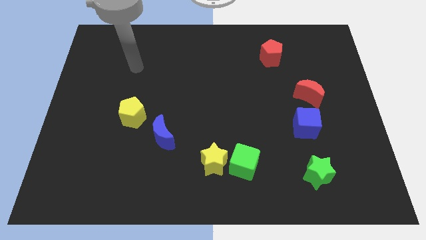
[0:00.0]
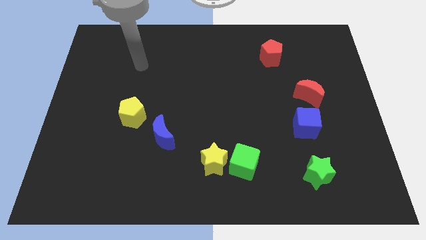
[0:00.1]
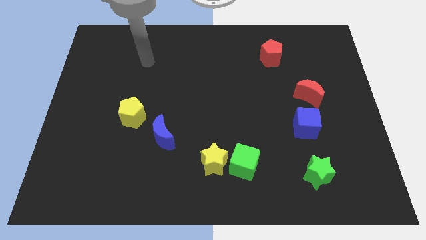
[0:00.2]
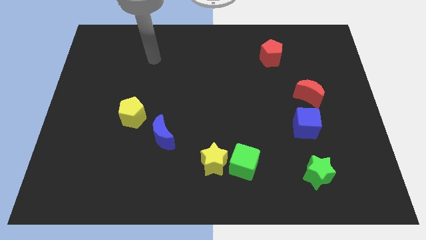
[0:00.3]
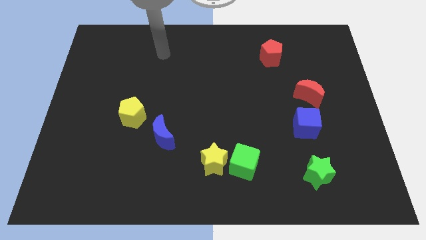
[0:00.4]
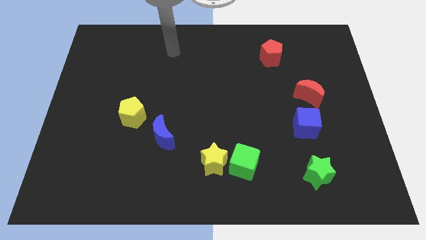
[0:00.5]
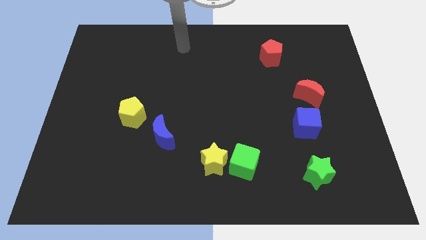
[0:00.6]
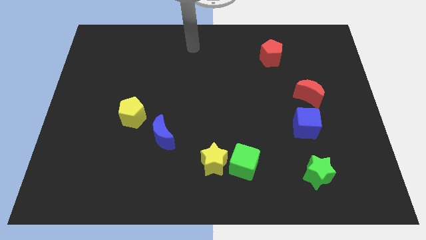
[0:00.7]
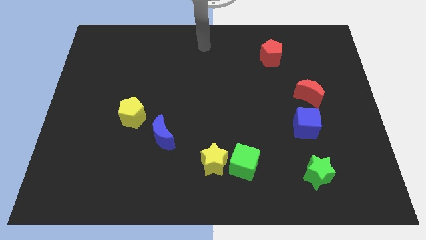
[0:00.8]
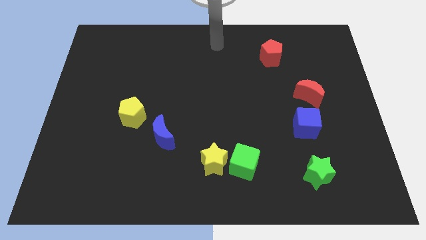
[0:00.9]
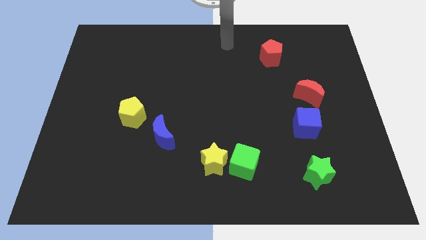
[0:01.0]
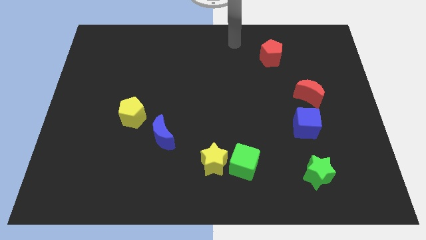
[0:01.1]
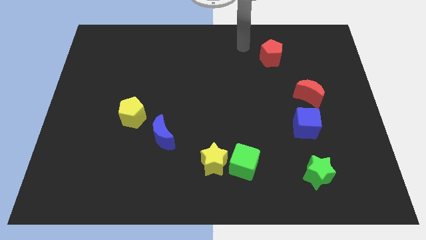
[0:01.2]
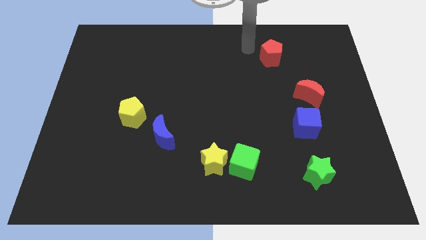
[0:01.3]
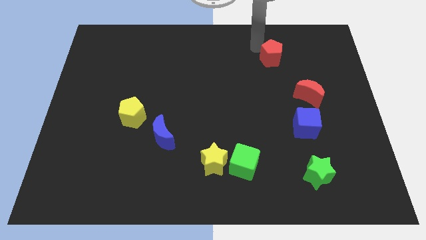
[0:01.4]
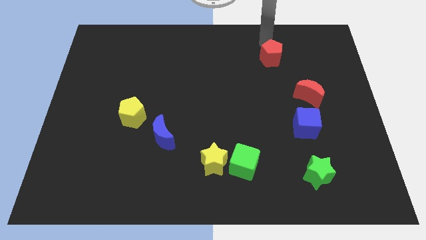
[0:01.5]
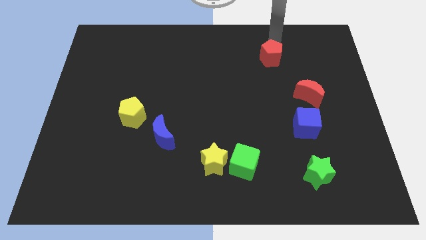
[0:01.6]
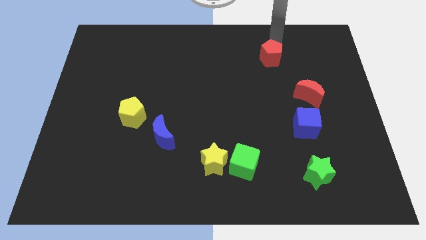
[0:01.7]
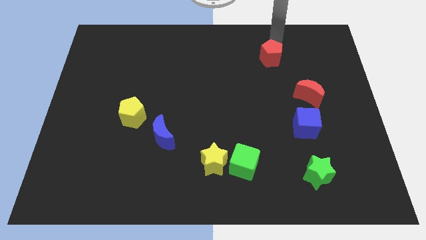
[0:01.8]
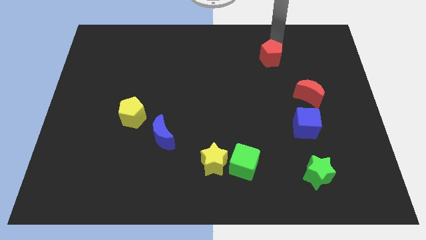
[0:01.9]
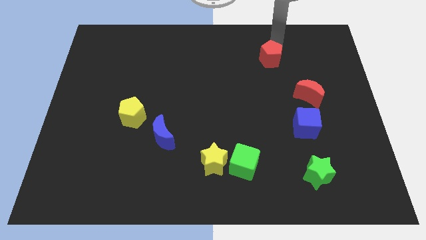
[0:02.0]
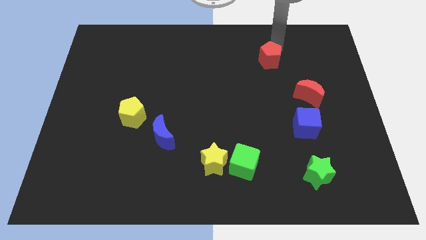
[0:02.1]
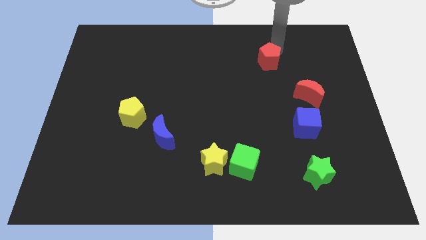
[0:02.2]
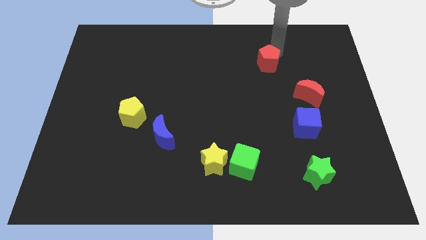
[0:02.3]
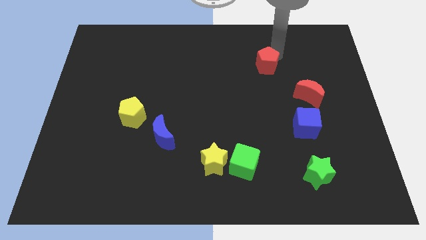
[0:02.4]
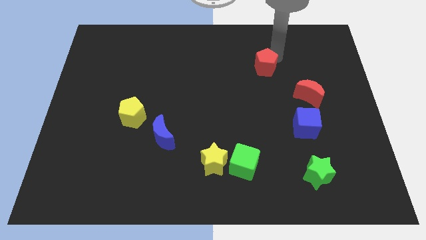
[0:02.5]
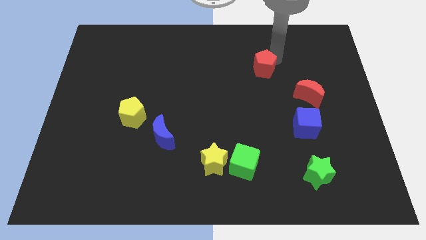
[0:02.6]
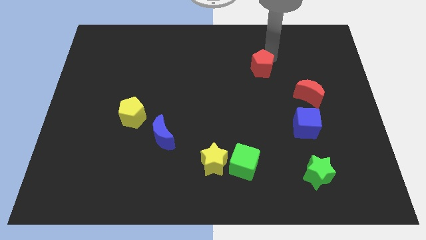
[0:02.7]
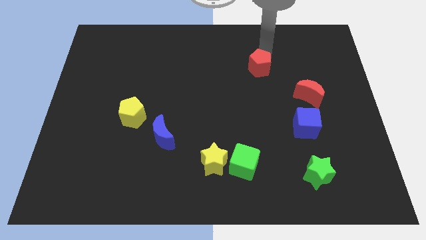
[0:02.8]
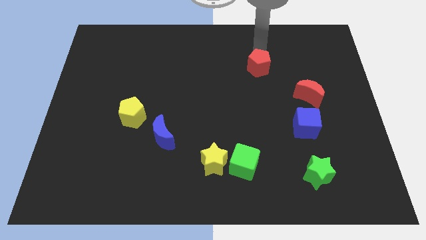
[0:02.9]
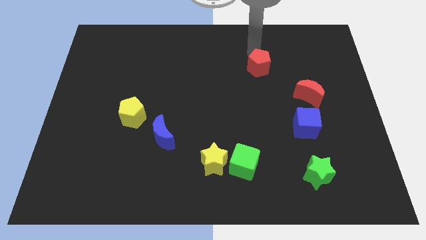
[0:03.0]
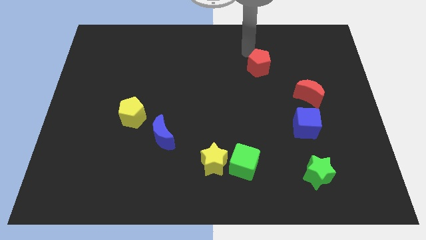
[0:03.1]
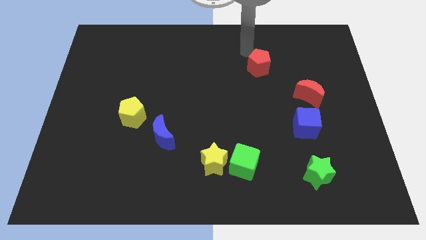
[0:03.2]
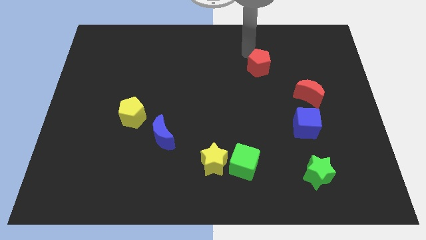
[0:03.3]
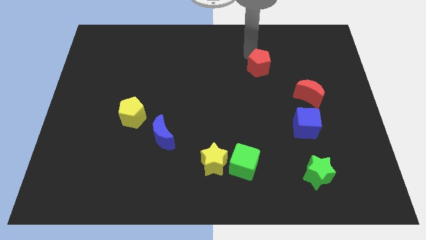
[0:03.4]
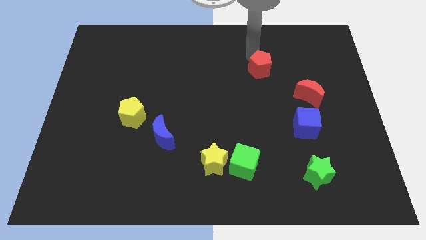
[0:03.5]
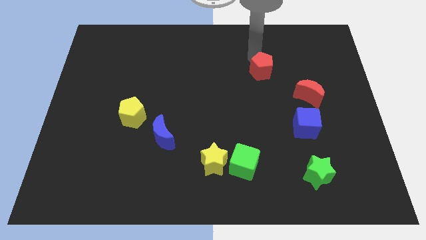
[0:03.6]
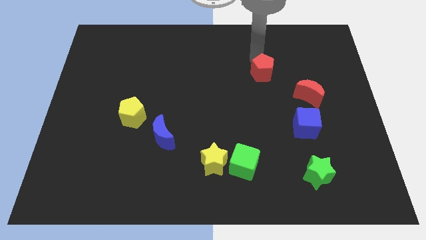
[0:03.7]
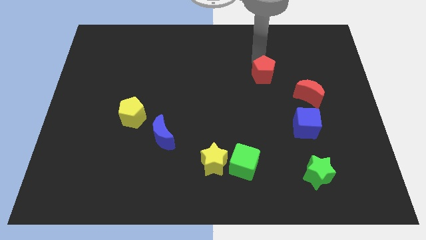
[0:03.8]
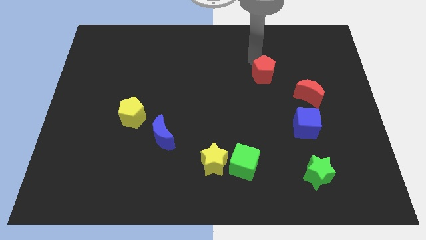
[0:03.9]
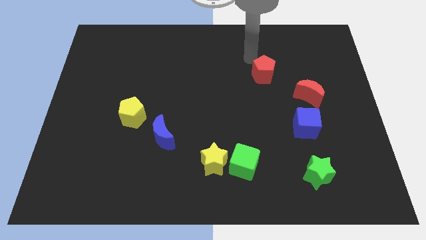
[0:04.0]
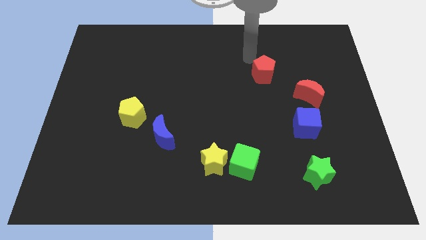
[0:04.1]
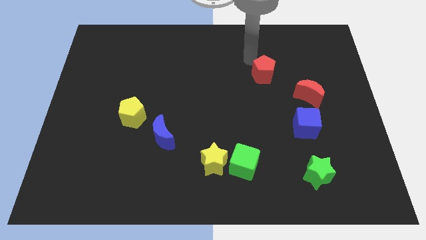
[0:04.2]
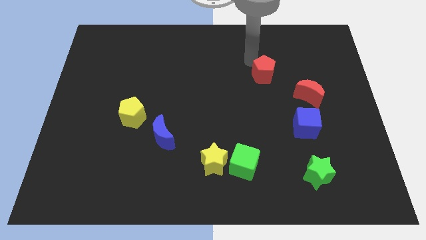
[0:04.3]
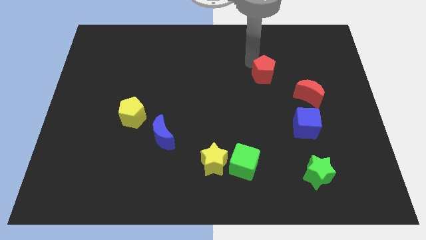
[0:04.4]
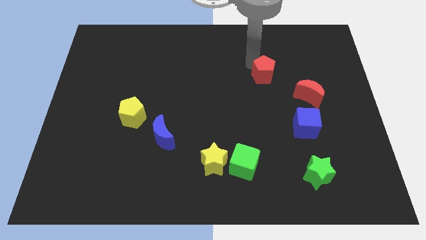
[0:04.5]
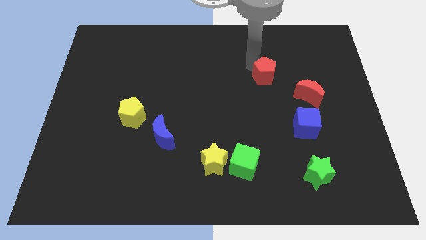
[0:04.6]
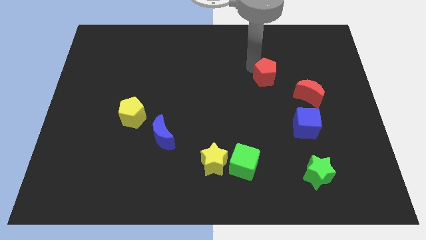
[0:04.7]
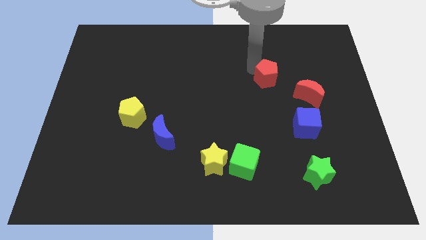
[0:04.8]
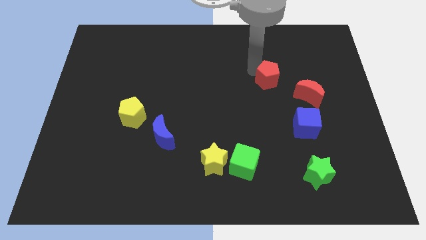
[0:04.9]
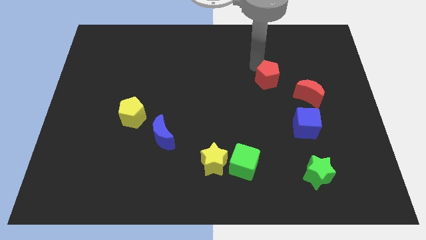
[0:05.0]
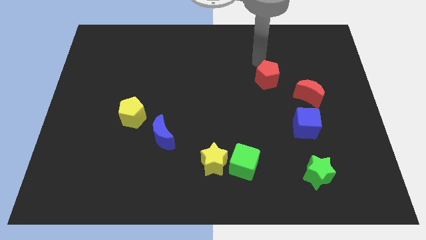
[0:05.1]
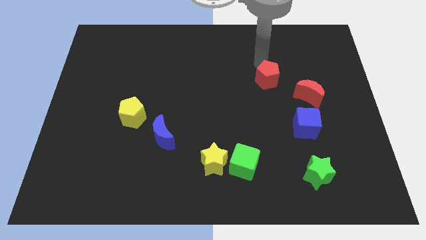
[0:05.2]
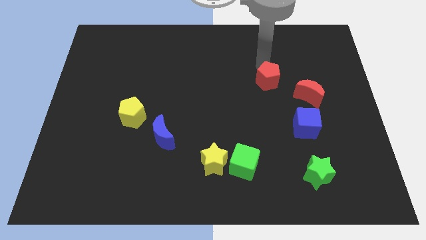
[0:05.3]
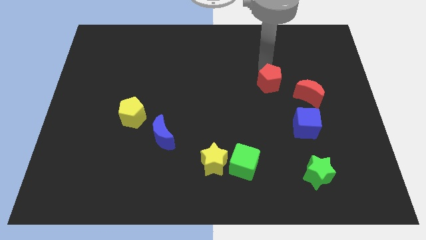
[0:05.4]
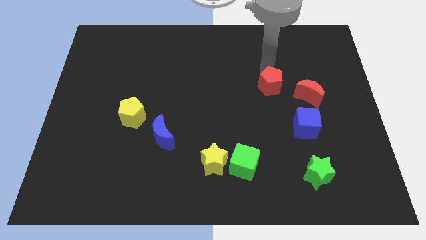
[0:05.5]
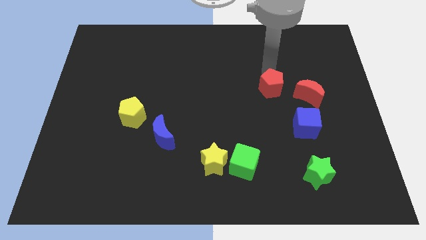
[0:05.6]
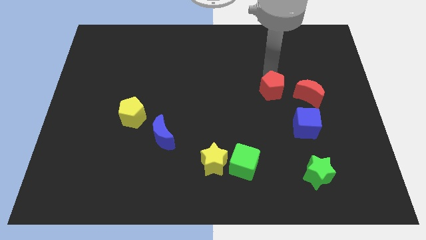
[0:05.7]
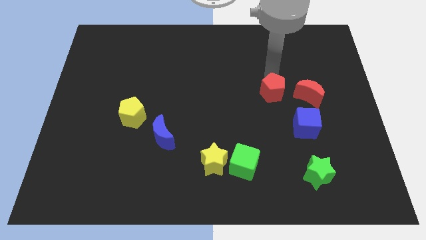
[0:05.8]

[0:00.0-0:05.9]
move the red pentagon to the top left side of the blue cube

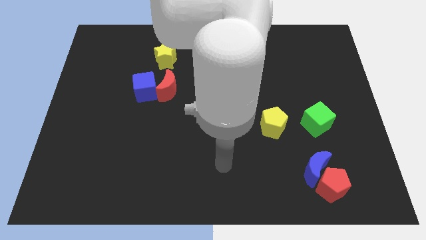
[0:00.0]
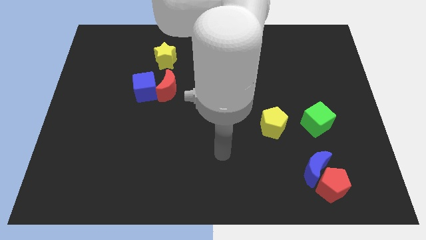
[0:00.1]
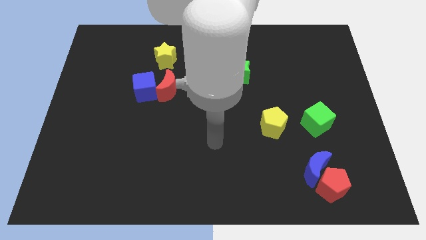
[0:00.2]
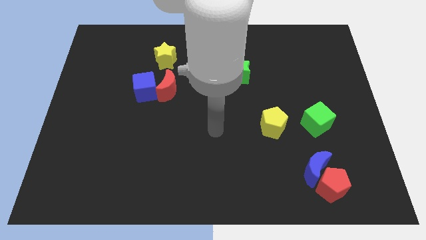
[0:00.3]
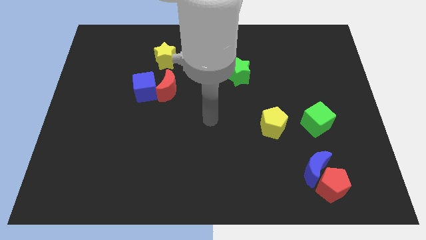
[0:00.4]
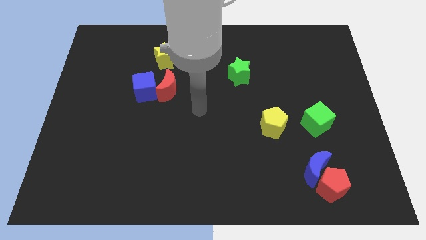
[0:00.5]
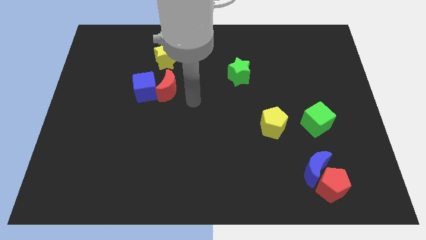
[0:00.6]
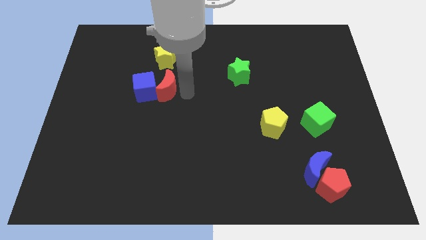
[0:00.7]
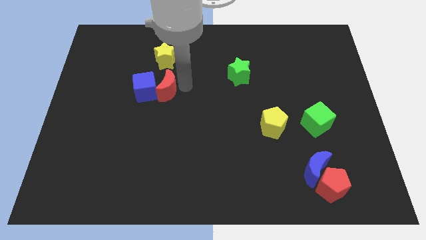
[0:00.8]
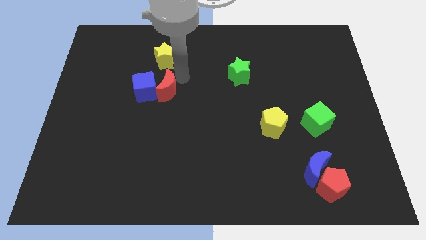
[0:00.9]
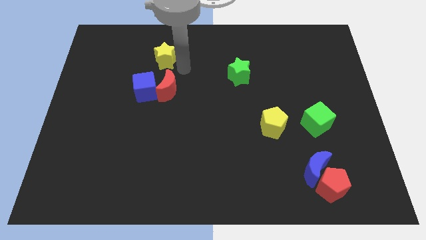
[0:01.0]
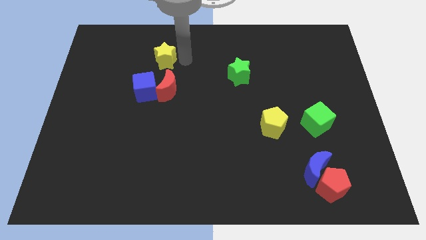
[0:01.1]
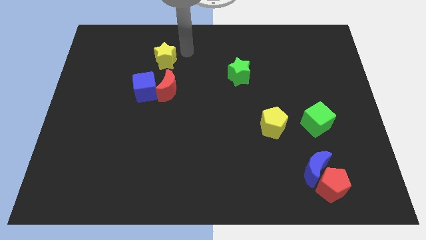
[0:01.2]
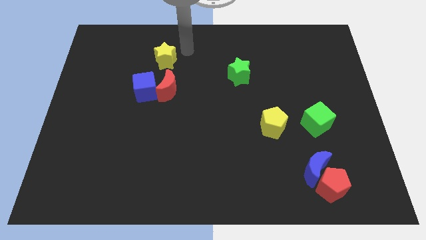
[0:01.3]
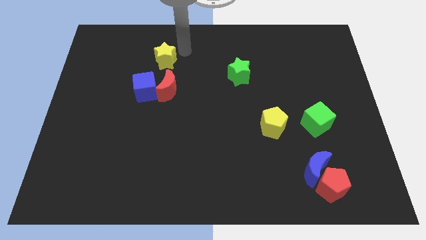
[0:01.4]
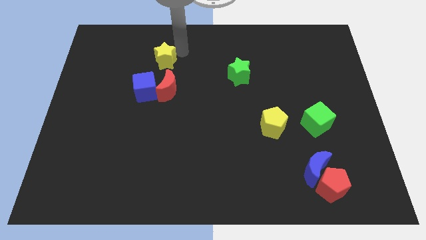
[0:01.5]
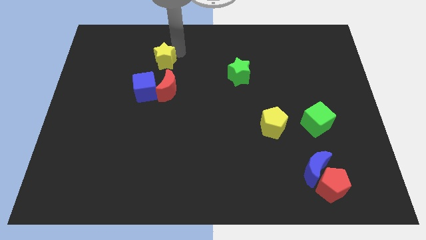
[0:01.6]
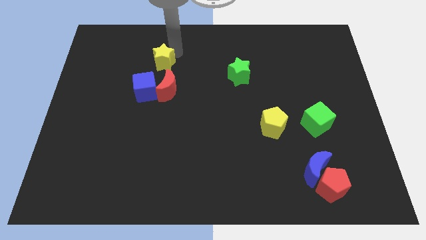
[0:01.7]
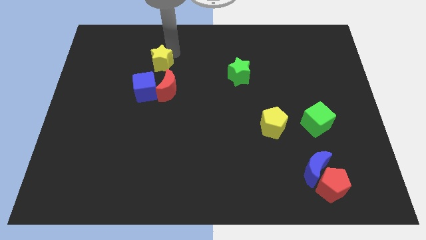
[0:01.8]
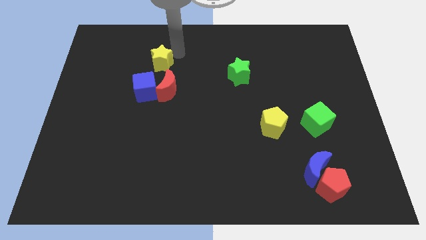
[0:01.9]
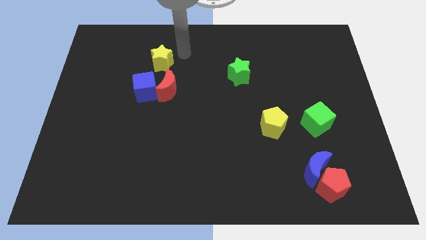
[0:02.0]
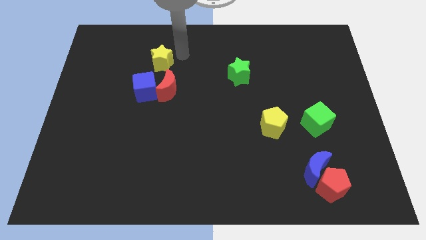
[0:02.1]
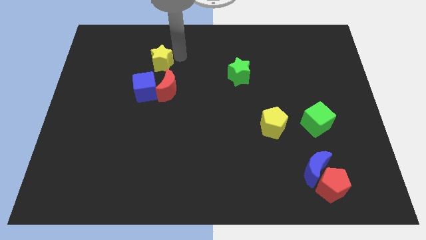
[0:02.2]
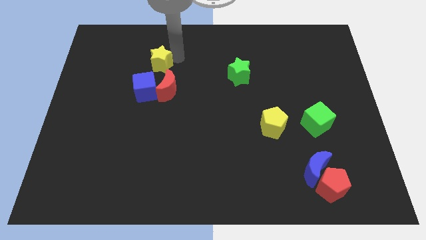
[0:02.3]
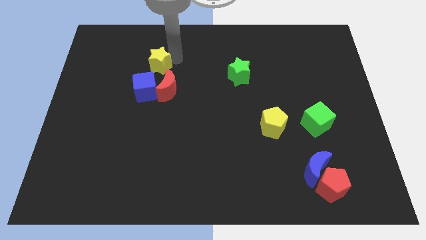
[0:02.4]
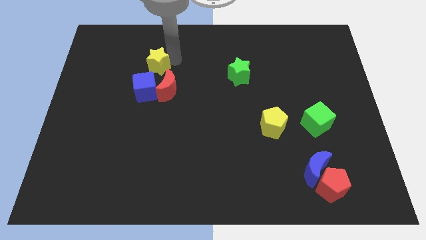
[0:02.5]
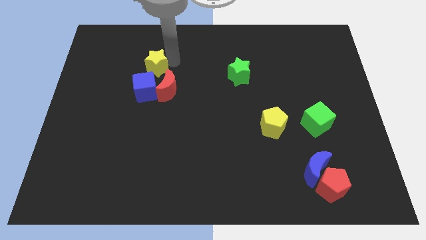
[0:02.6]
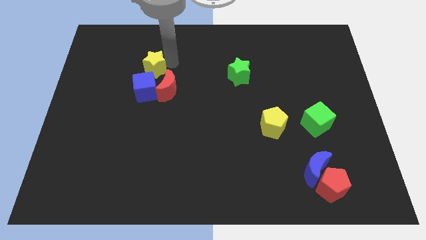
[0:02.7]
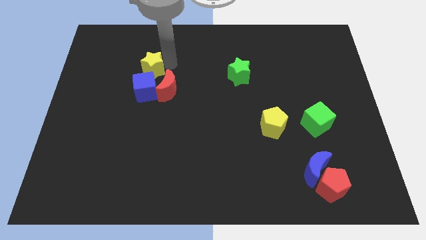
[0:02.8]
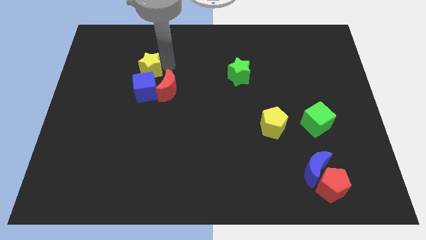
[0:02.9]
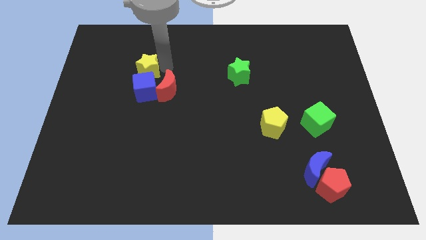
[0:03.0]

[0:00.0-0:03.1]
put the yellow star to the top left of the blue cube
